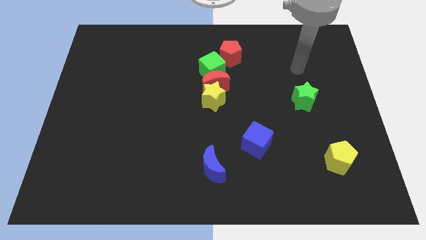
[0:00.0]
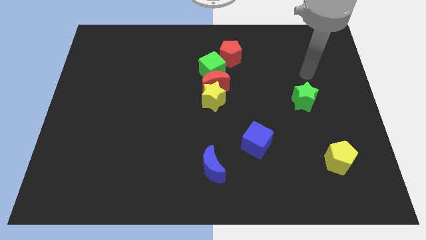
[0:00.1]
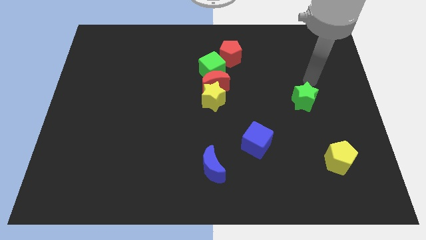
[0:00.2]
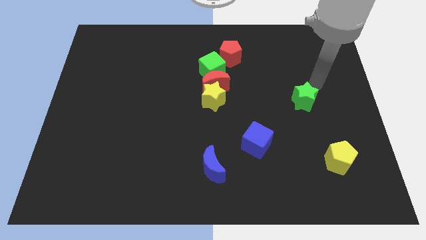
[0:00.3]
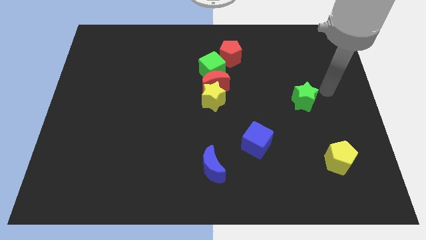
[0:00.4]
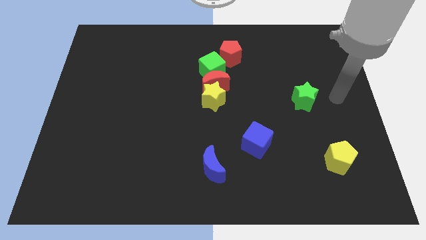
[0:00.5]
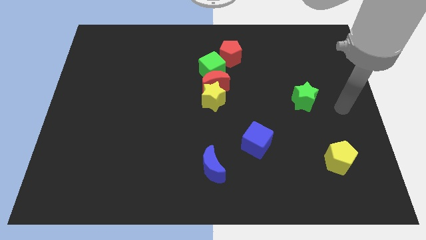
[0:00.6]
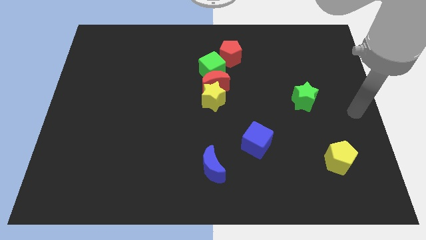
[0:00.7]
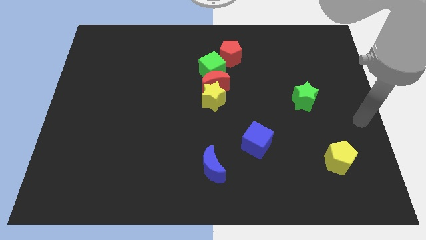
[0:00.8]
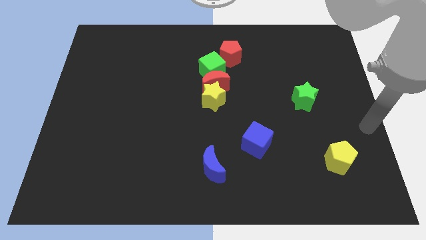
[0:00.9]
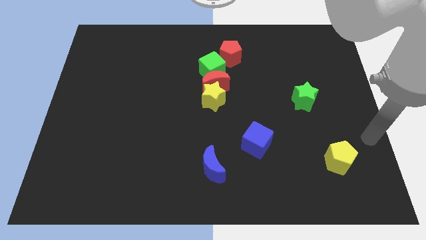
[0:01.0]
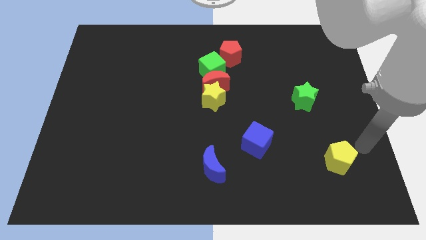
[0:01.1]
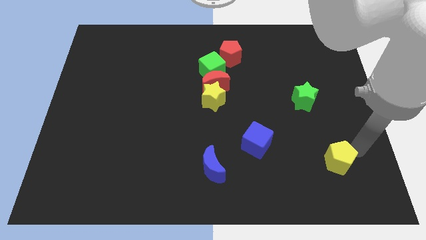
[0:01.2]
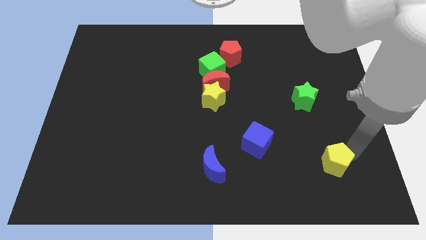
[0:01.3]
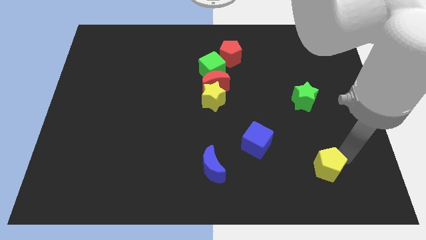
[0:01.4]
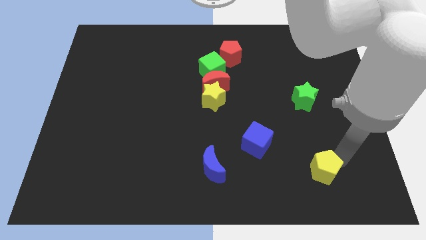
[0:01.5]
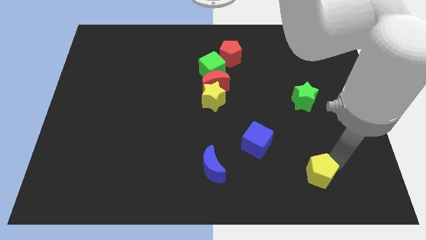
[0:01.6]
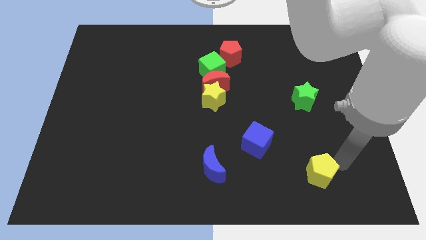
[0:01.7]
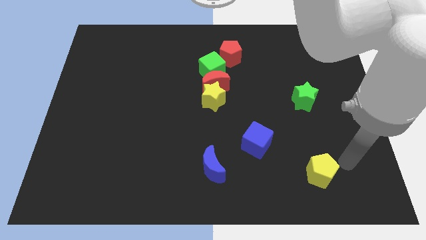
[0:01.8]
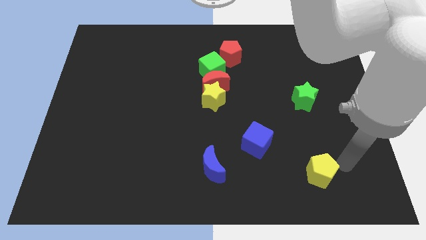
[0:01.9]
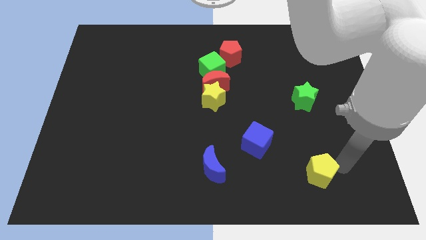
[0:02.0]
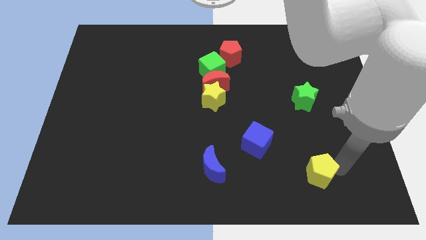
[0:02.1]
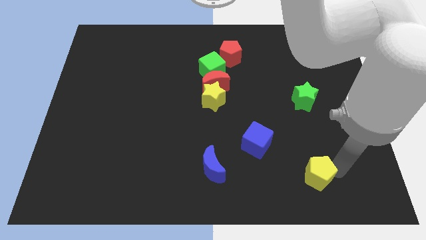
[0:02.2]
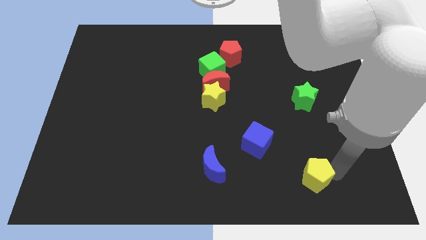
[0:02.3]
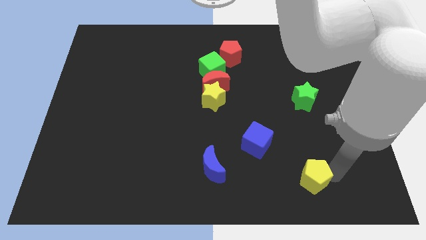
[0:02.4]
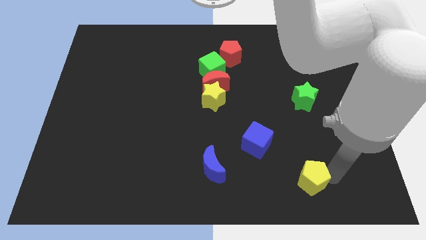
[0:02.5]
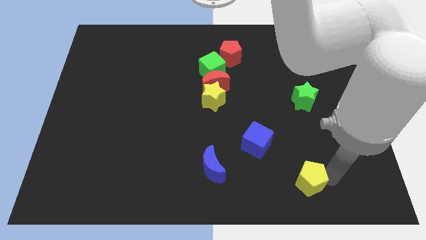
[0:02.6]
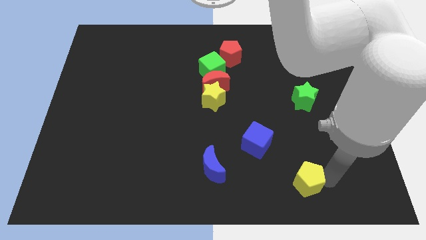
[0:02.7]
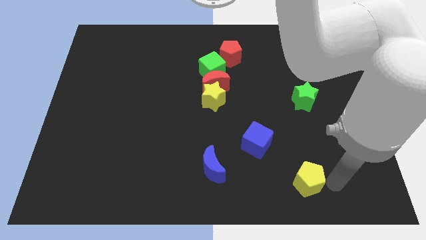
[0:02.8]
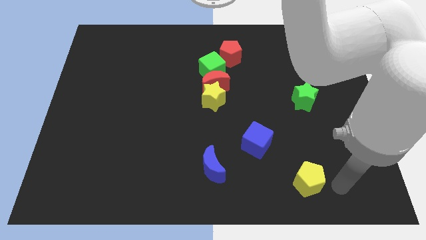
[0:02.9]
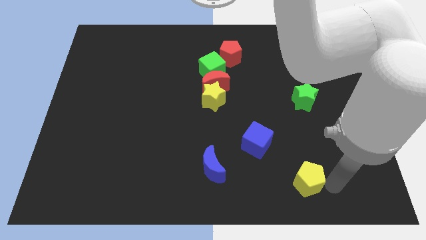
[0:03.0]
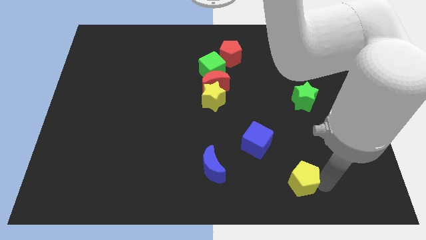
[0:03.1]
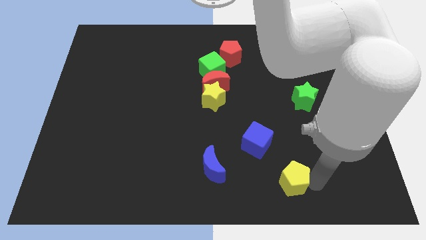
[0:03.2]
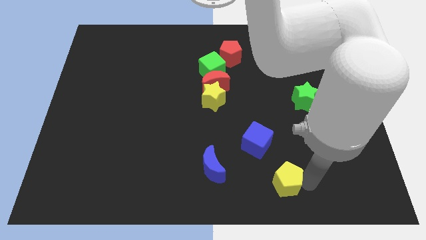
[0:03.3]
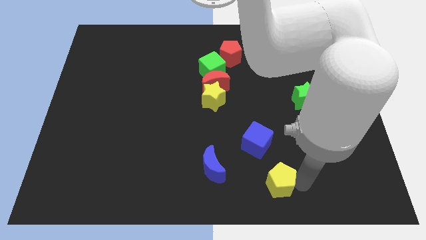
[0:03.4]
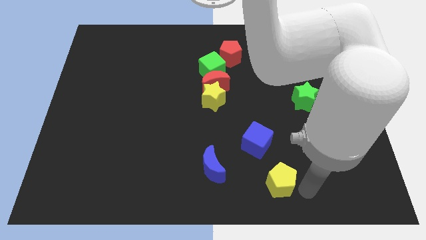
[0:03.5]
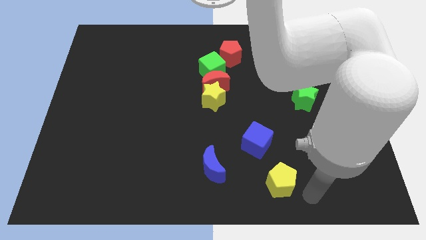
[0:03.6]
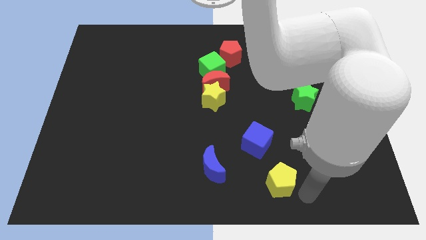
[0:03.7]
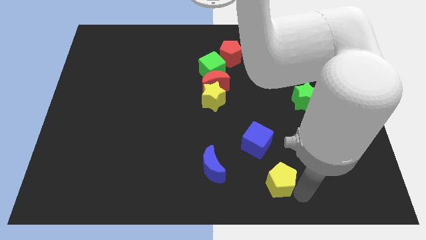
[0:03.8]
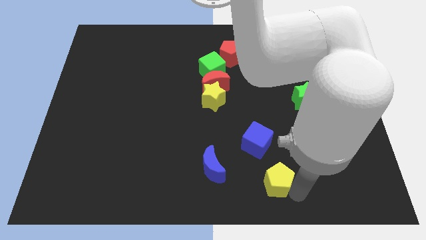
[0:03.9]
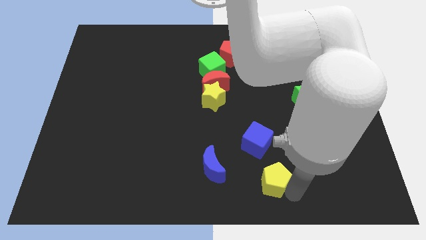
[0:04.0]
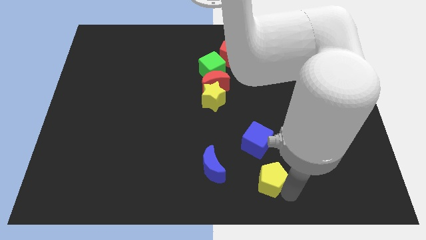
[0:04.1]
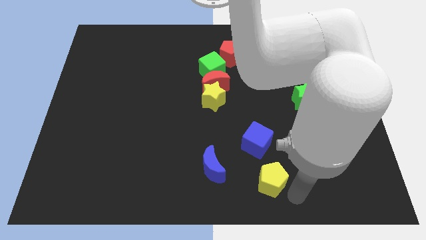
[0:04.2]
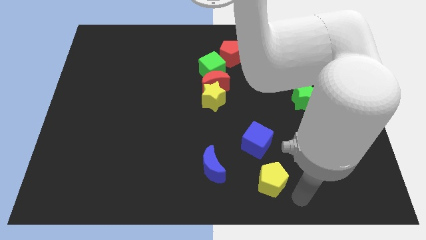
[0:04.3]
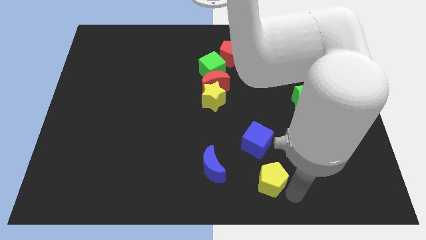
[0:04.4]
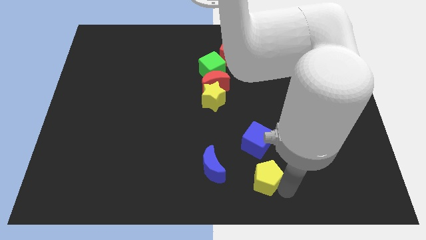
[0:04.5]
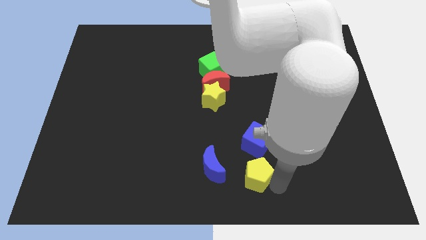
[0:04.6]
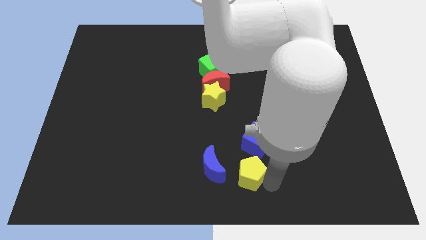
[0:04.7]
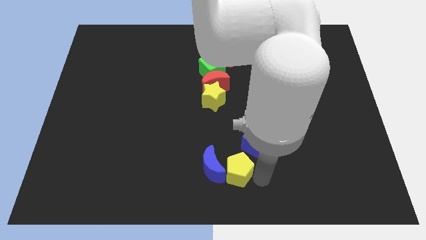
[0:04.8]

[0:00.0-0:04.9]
slide the yellow pentagon towards the blue moon

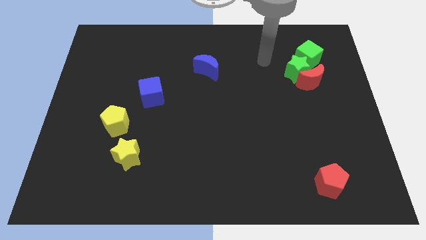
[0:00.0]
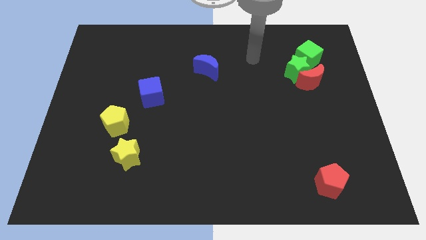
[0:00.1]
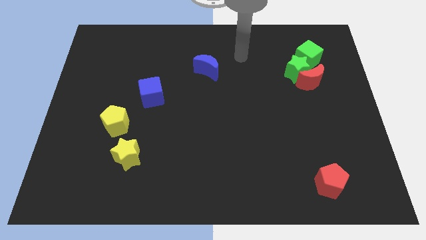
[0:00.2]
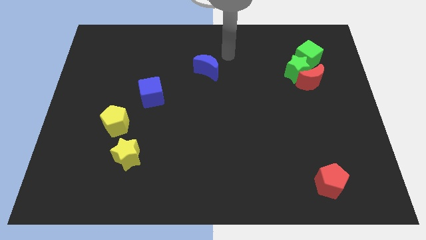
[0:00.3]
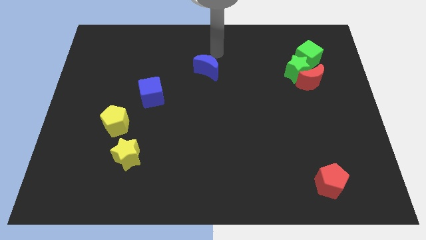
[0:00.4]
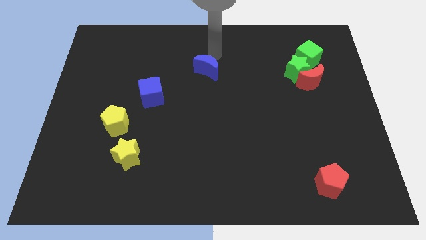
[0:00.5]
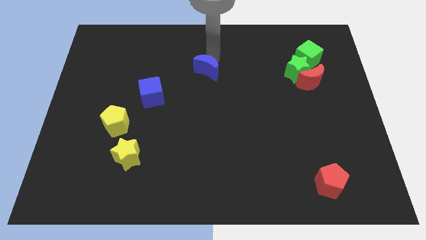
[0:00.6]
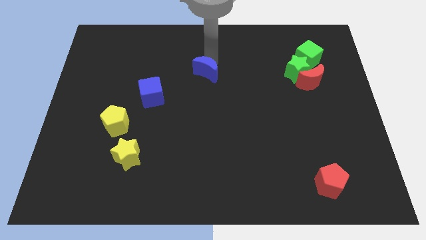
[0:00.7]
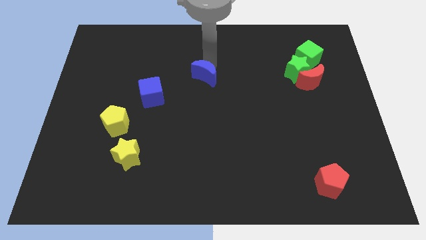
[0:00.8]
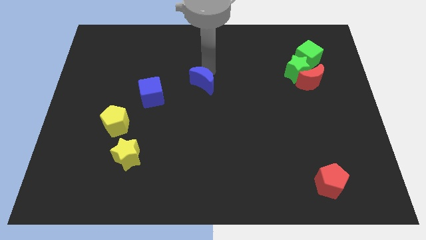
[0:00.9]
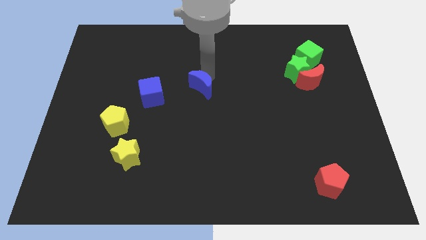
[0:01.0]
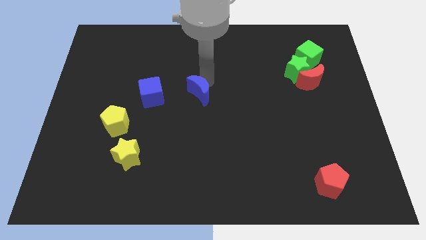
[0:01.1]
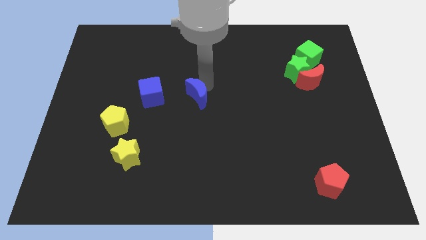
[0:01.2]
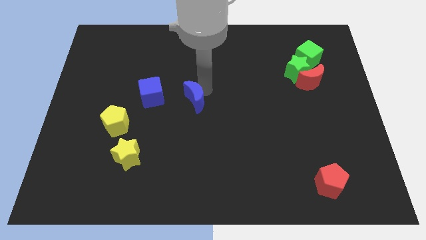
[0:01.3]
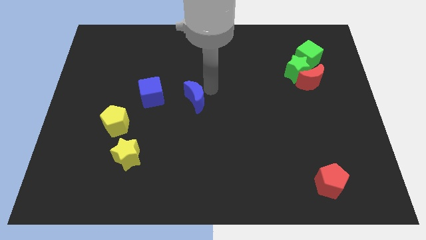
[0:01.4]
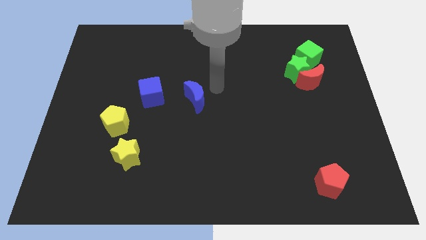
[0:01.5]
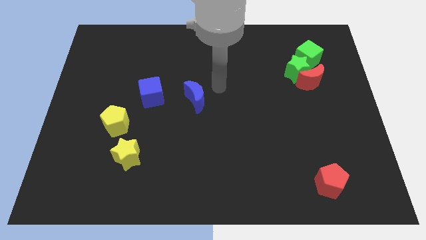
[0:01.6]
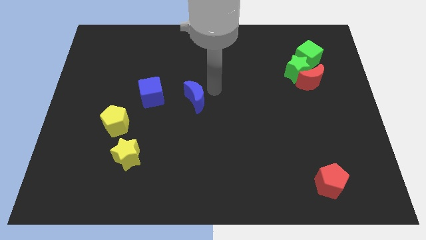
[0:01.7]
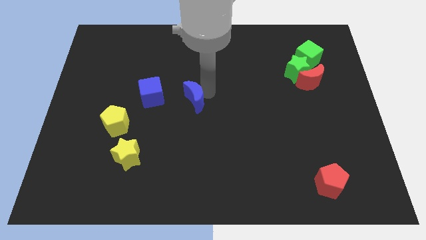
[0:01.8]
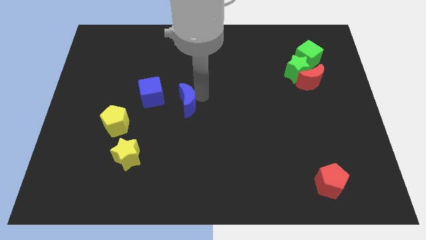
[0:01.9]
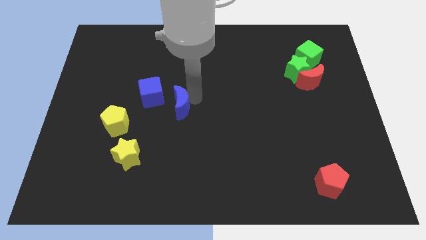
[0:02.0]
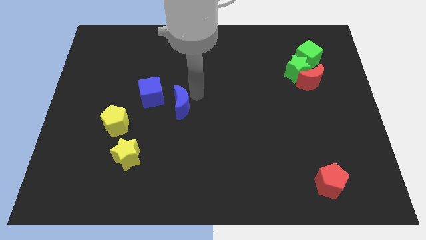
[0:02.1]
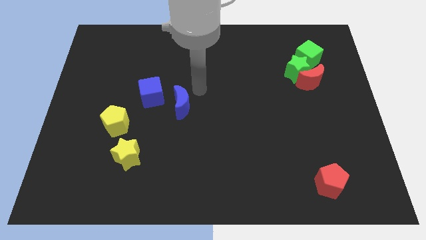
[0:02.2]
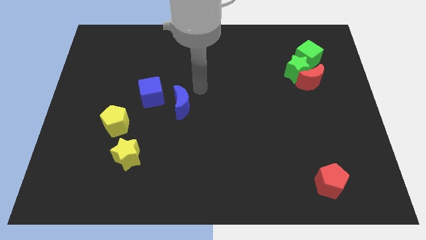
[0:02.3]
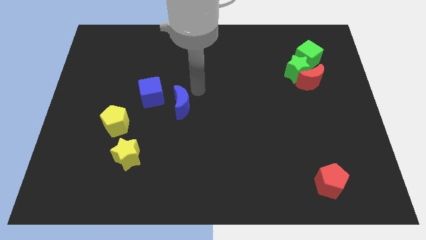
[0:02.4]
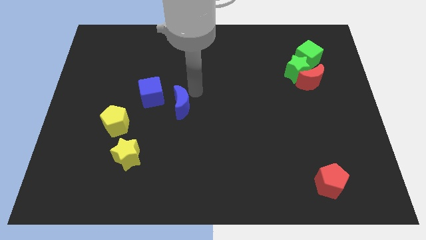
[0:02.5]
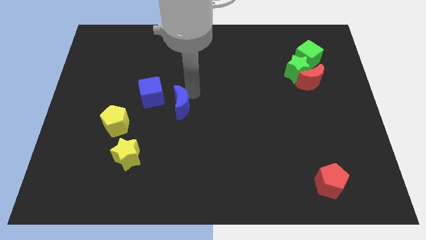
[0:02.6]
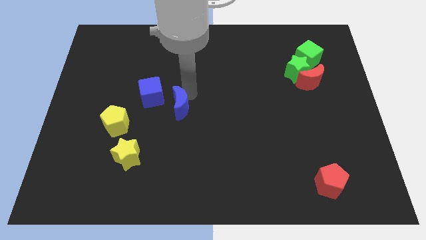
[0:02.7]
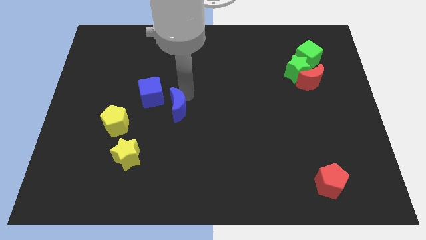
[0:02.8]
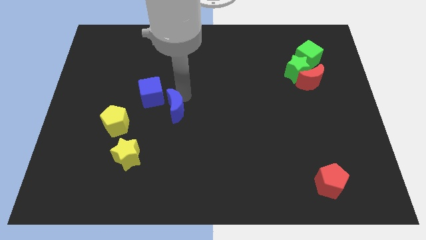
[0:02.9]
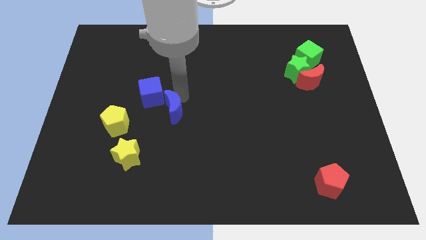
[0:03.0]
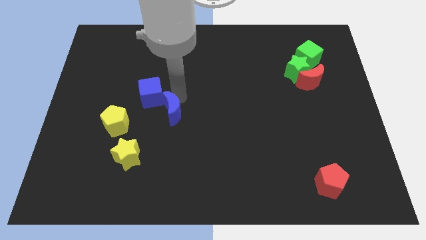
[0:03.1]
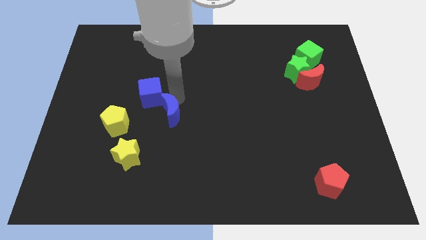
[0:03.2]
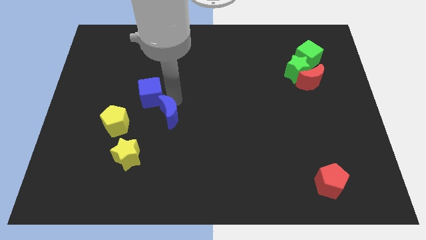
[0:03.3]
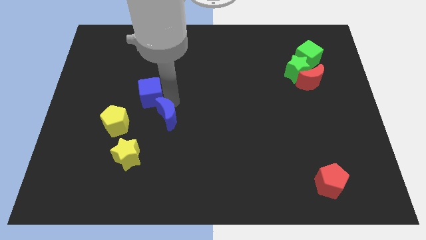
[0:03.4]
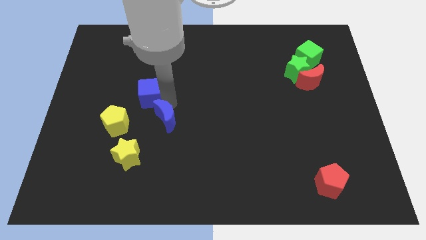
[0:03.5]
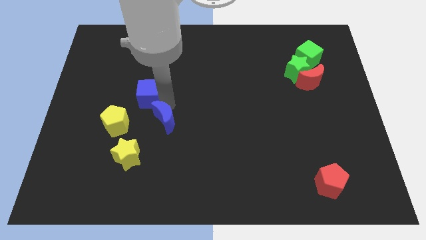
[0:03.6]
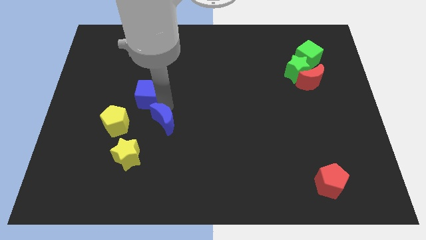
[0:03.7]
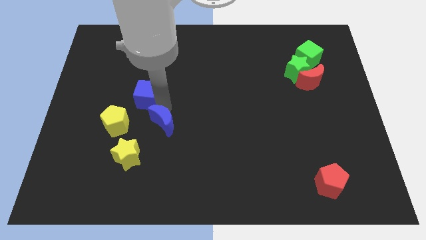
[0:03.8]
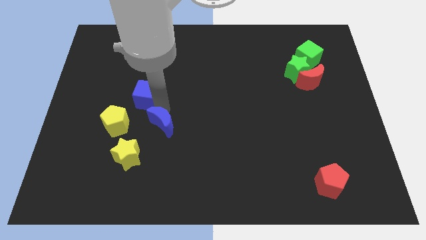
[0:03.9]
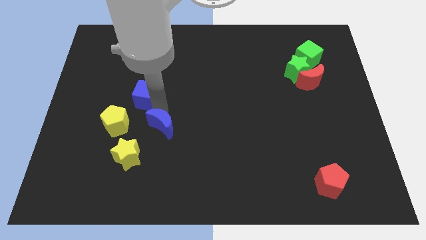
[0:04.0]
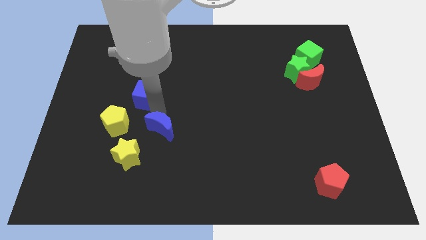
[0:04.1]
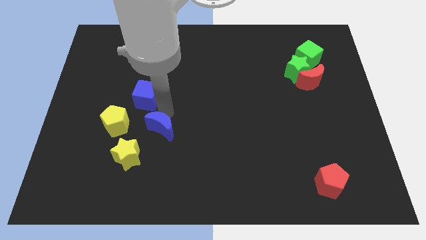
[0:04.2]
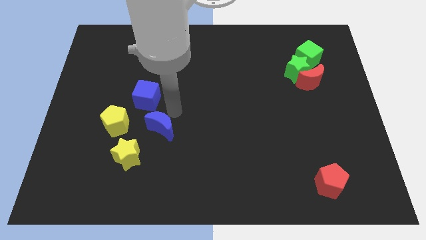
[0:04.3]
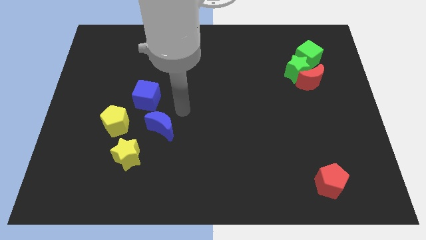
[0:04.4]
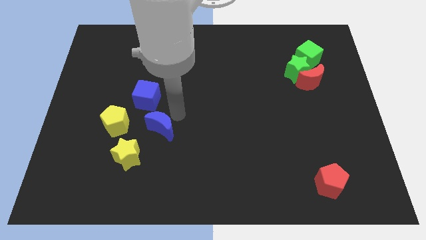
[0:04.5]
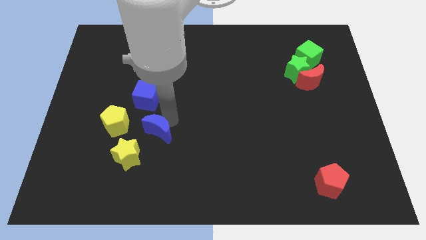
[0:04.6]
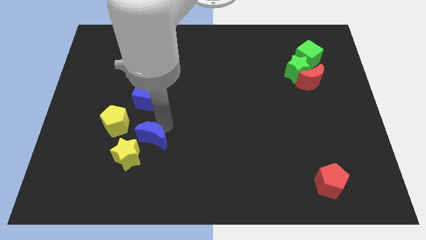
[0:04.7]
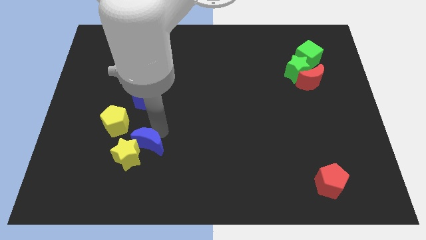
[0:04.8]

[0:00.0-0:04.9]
push the blue moon to the yellow star
